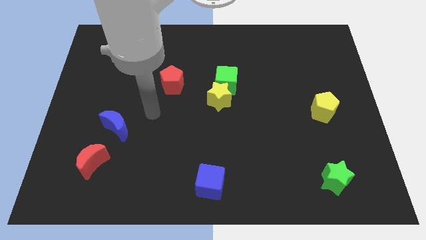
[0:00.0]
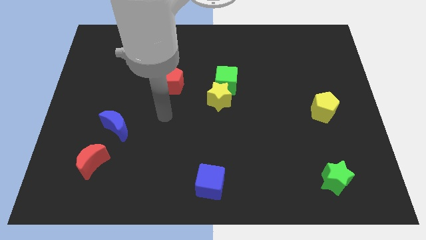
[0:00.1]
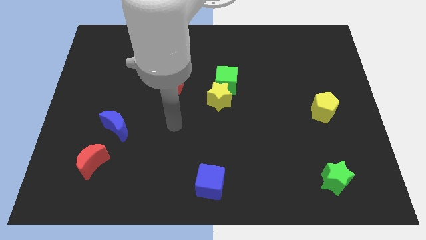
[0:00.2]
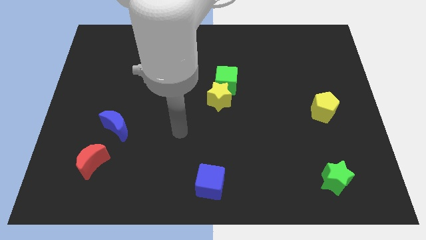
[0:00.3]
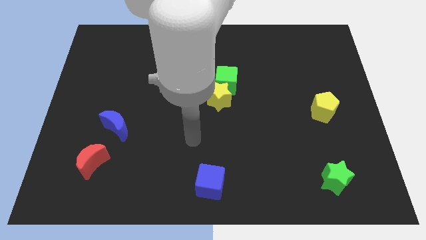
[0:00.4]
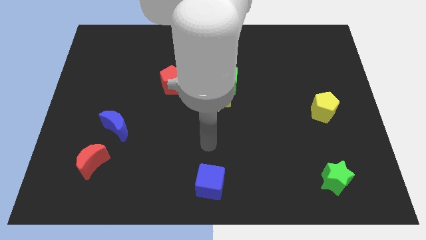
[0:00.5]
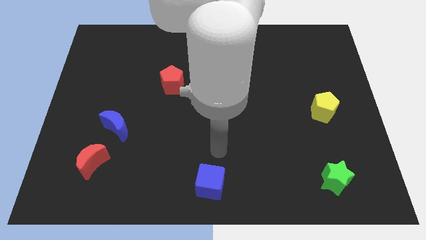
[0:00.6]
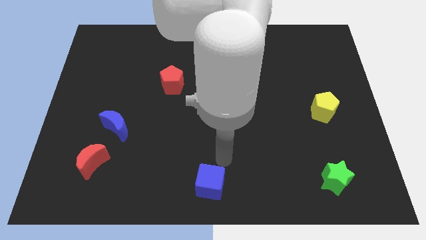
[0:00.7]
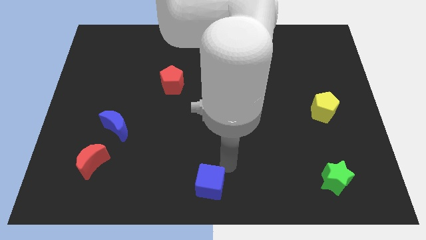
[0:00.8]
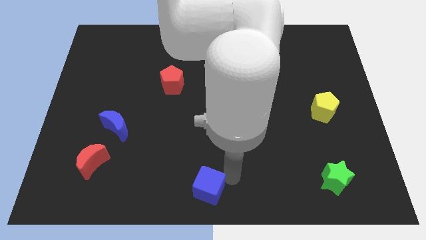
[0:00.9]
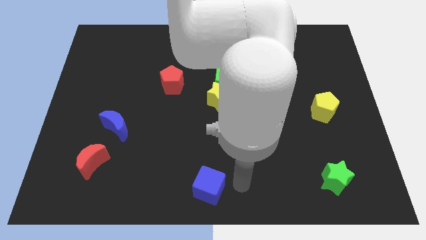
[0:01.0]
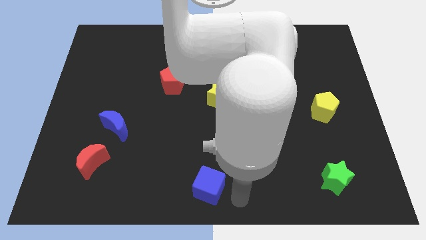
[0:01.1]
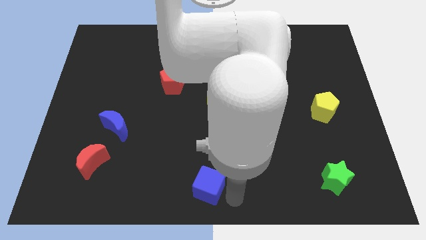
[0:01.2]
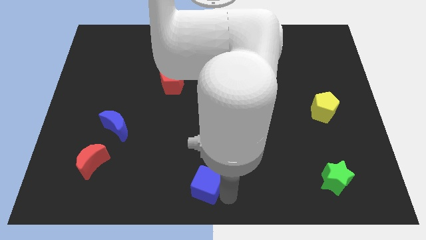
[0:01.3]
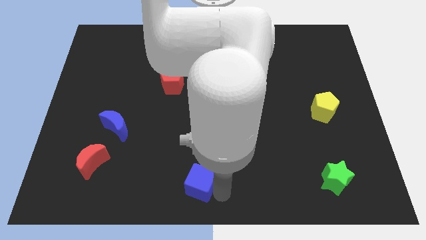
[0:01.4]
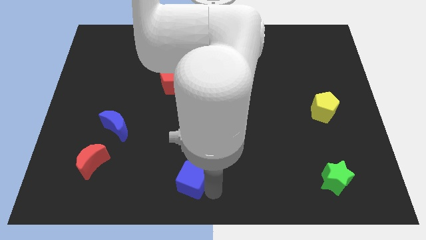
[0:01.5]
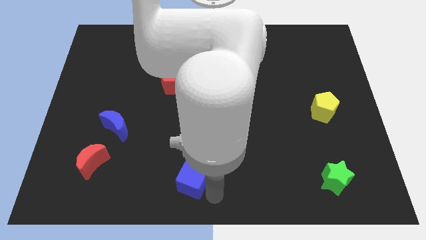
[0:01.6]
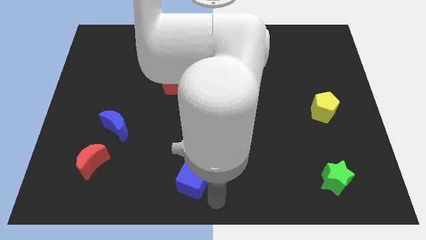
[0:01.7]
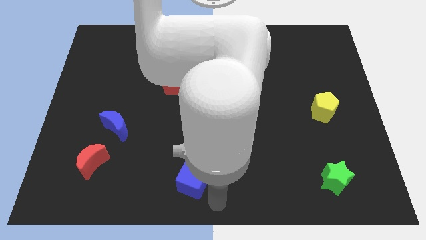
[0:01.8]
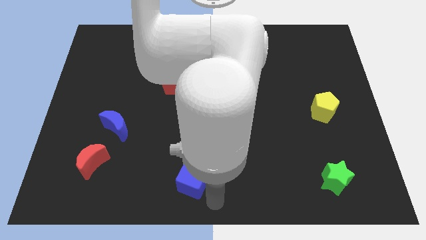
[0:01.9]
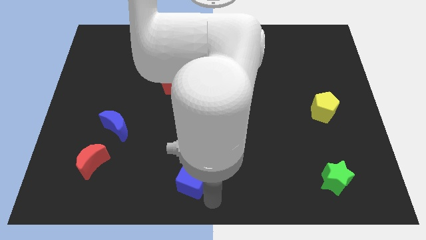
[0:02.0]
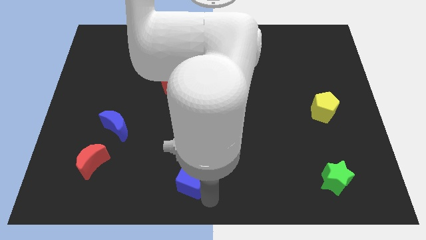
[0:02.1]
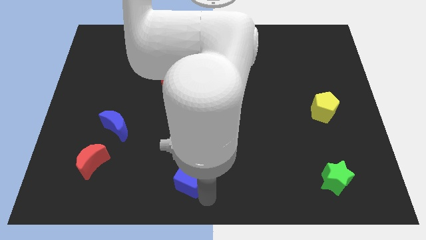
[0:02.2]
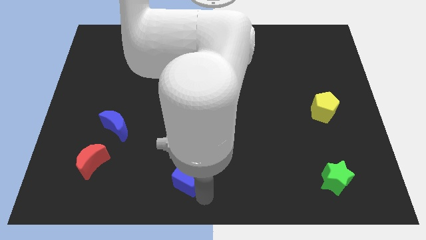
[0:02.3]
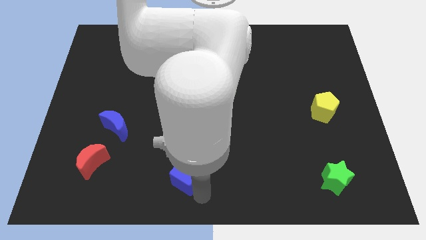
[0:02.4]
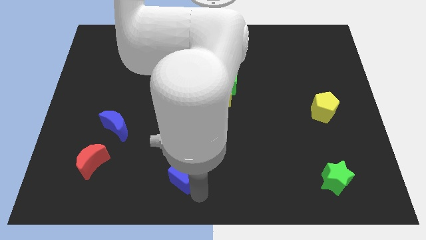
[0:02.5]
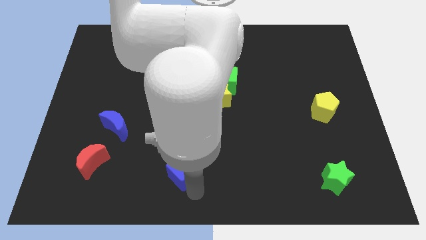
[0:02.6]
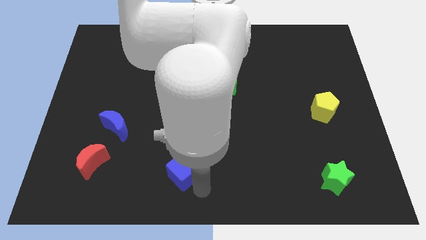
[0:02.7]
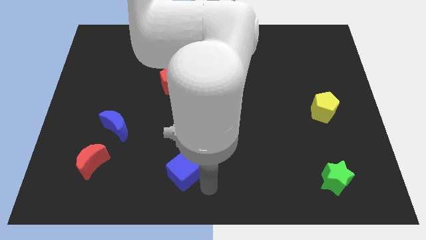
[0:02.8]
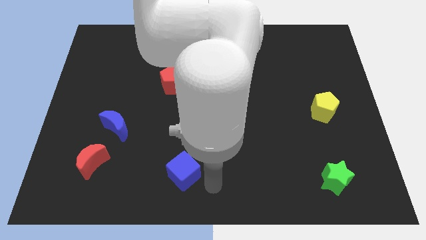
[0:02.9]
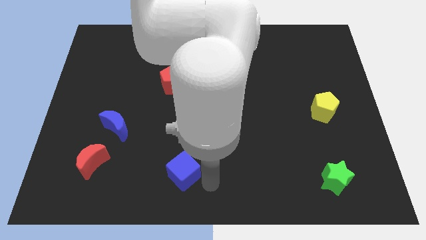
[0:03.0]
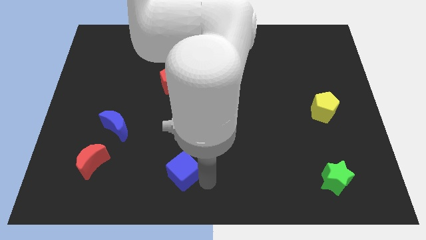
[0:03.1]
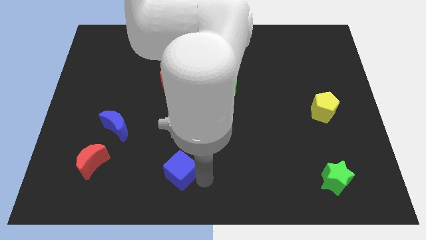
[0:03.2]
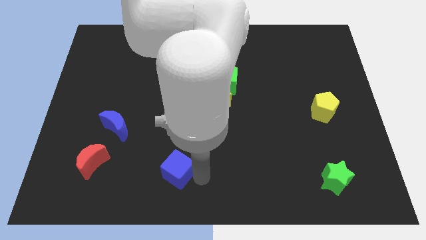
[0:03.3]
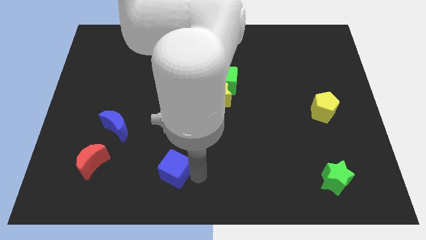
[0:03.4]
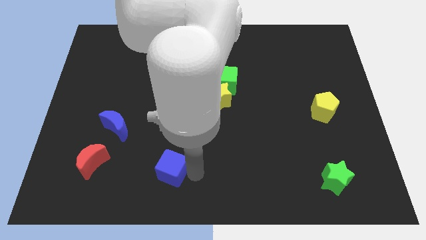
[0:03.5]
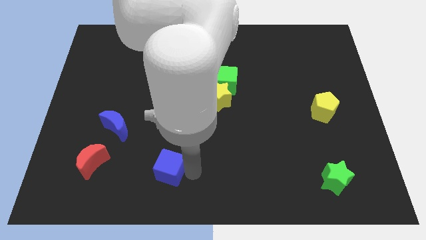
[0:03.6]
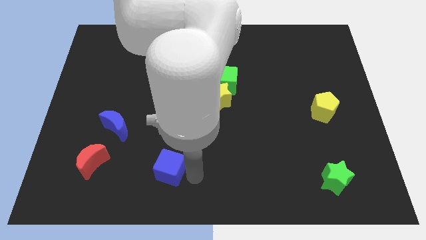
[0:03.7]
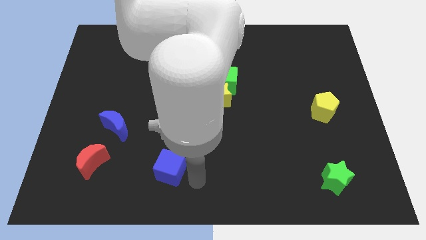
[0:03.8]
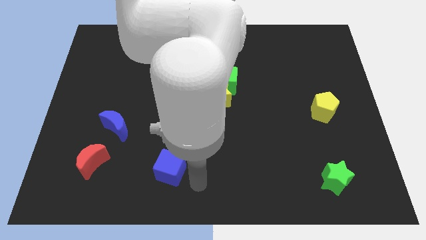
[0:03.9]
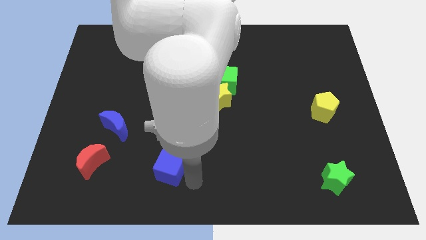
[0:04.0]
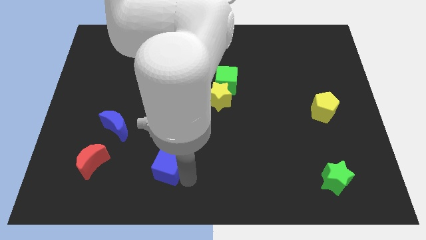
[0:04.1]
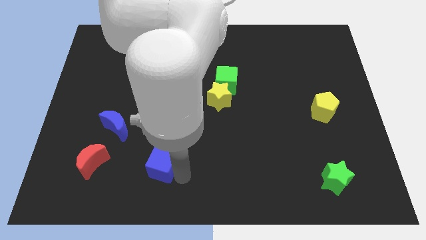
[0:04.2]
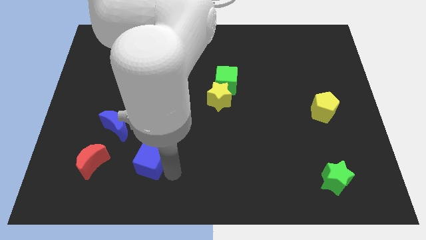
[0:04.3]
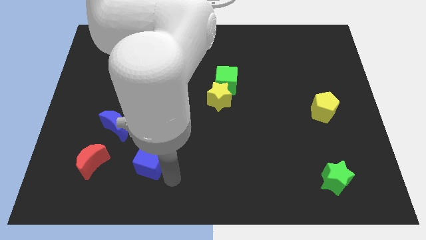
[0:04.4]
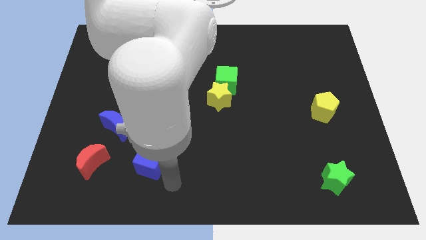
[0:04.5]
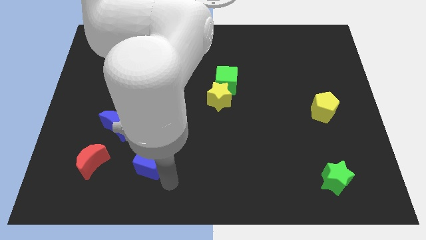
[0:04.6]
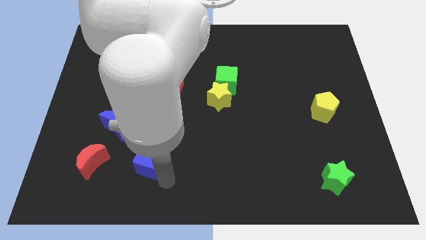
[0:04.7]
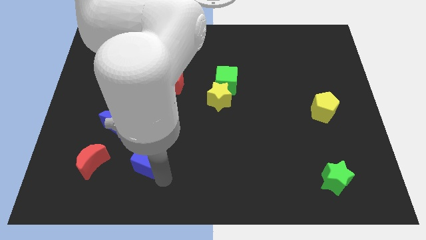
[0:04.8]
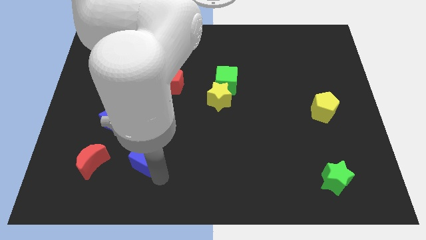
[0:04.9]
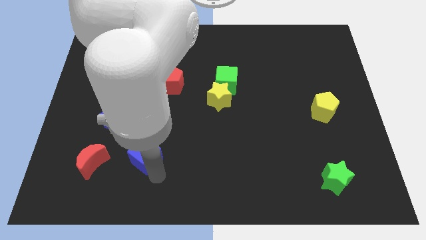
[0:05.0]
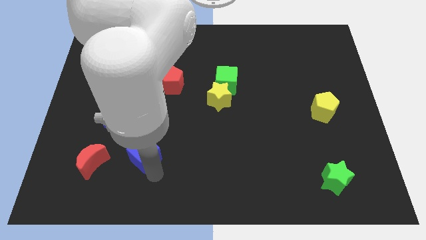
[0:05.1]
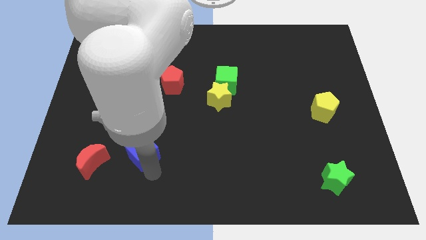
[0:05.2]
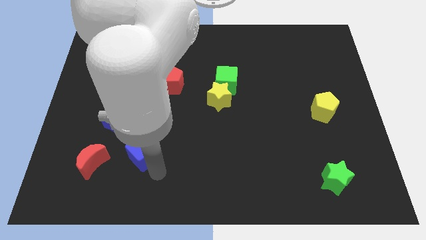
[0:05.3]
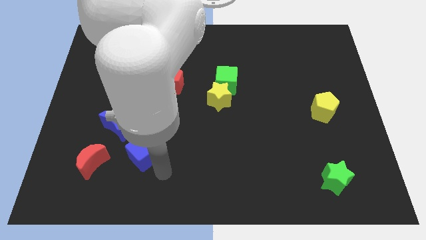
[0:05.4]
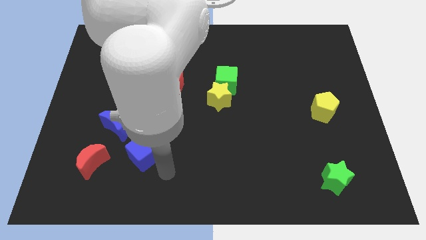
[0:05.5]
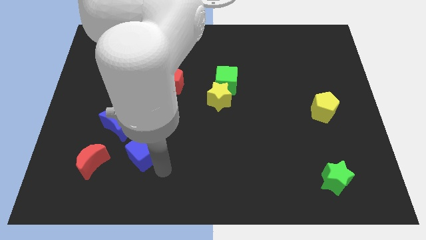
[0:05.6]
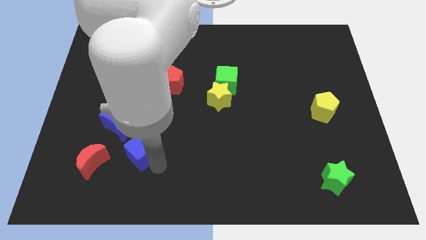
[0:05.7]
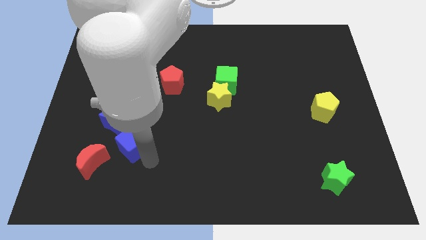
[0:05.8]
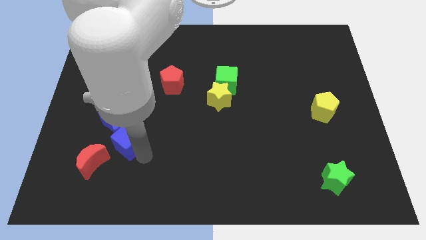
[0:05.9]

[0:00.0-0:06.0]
move the blue cube next to the blue moon
